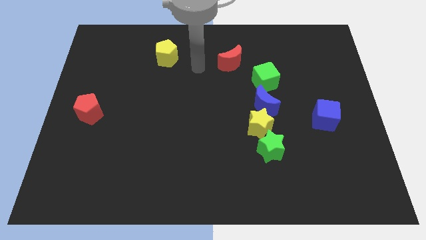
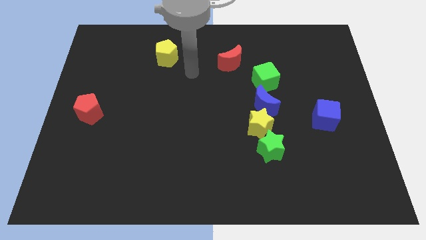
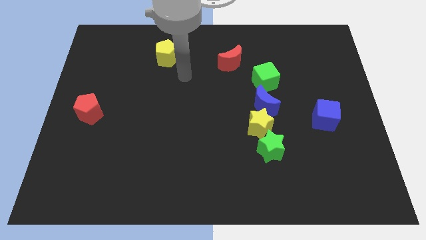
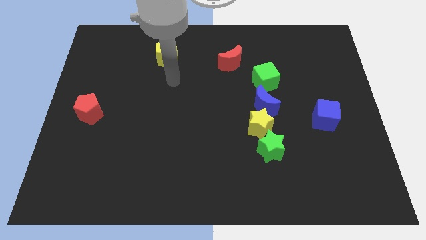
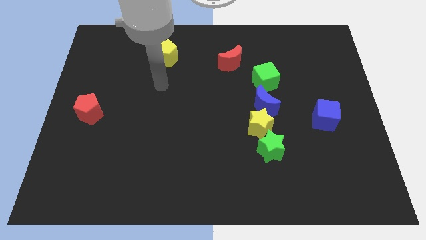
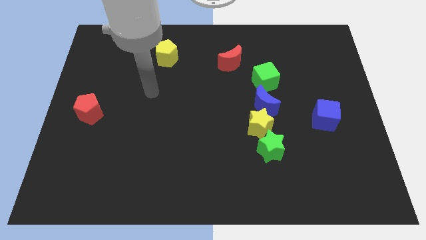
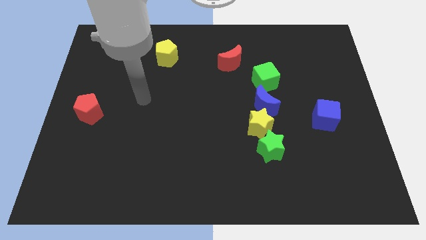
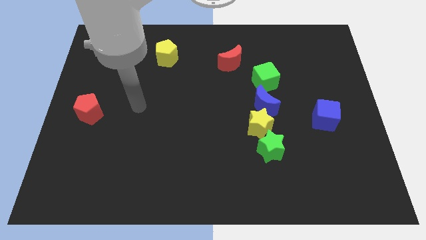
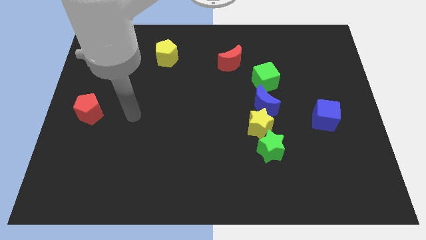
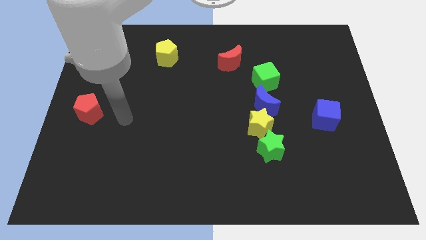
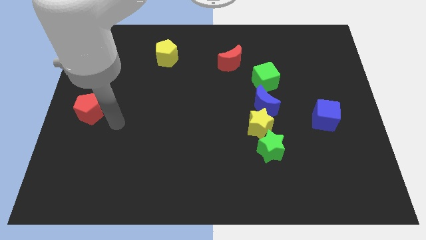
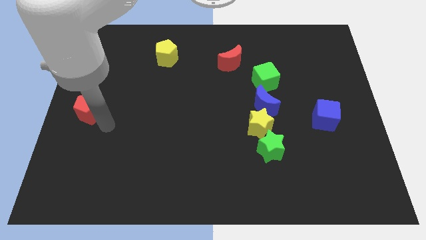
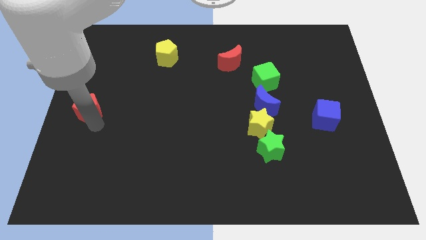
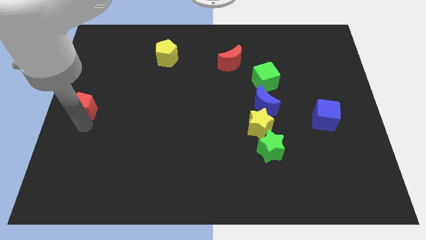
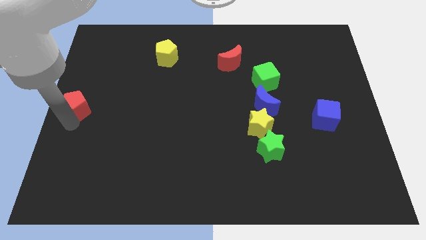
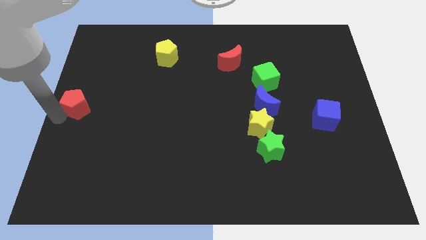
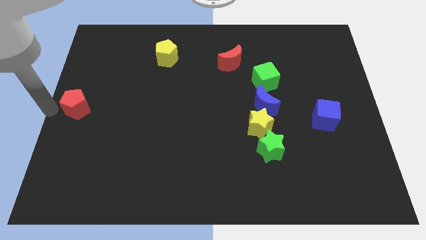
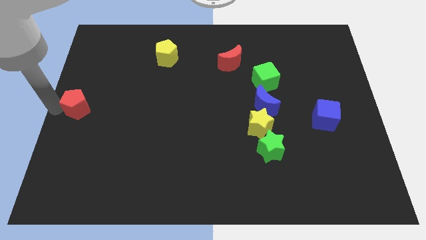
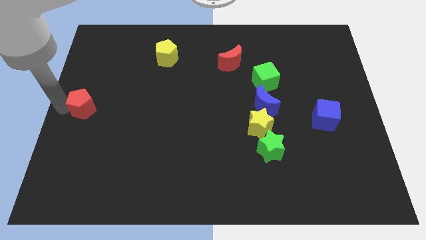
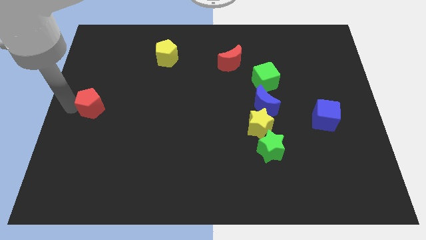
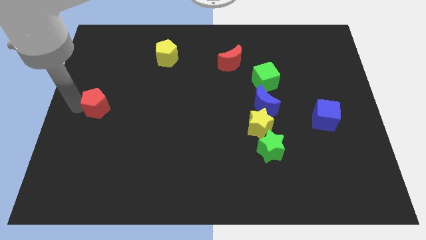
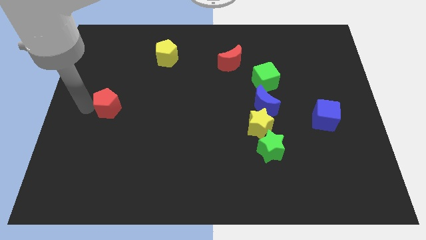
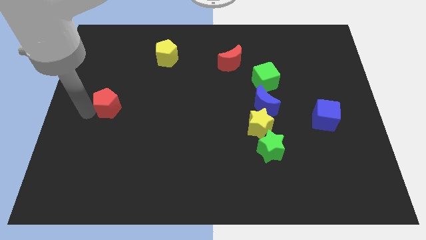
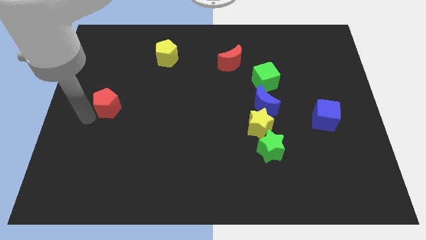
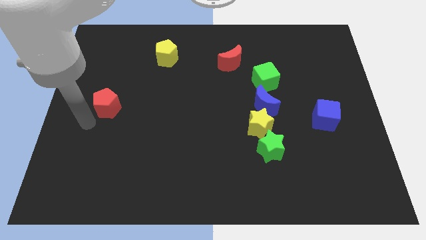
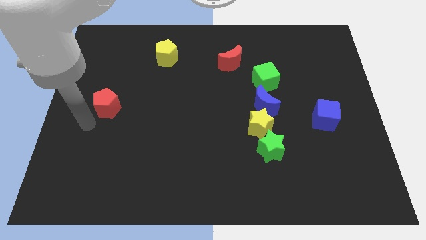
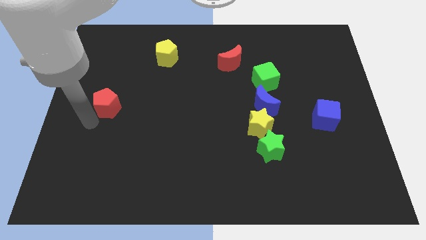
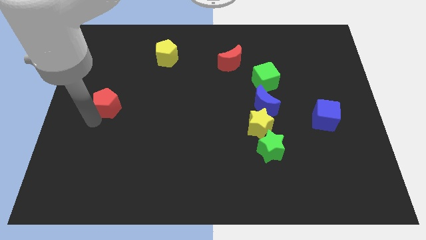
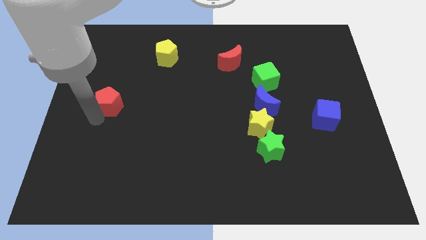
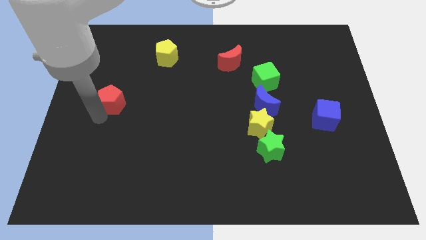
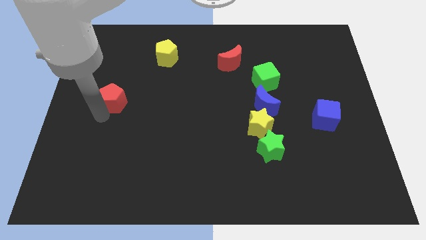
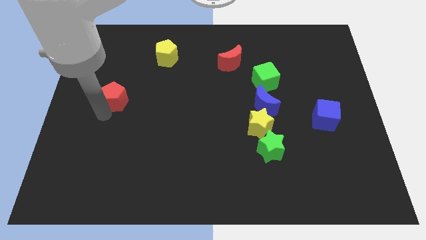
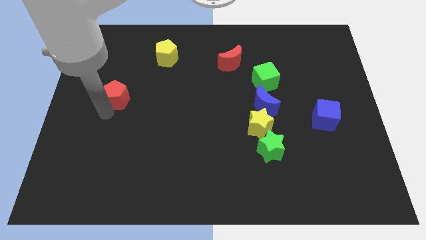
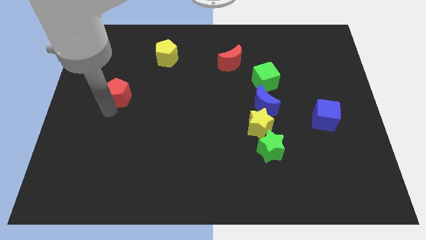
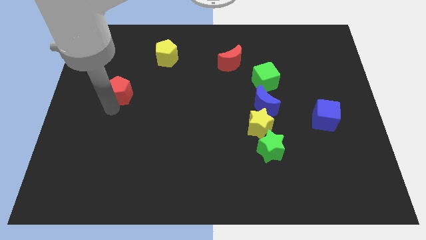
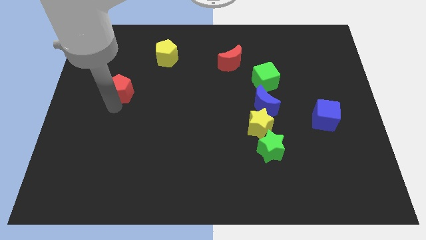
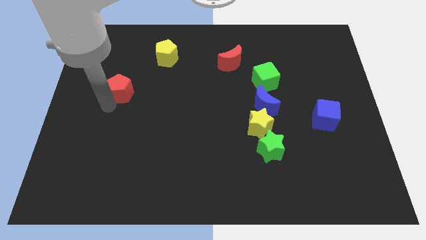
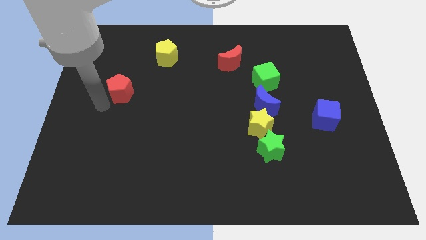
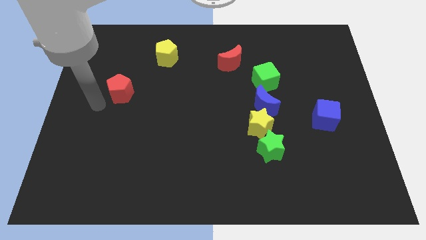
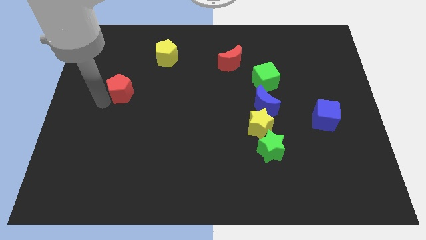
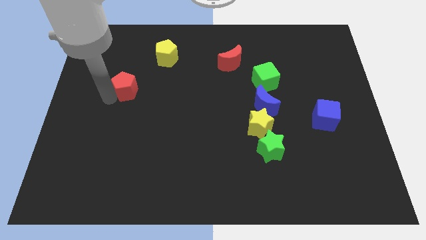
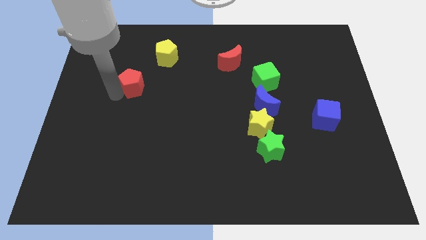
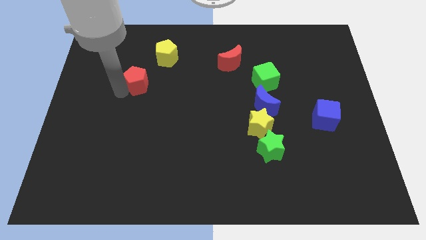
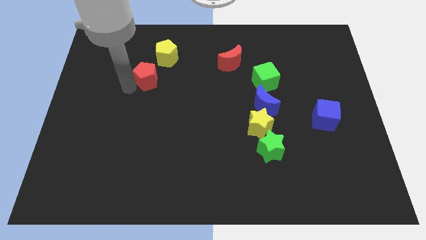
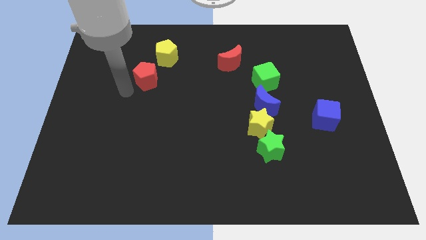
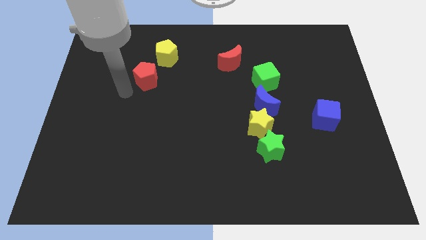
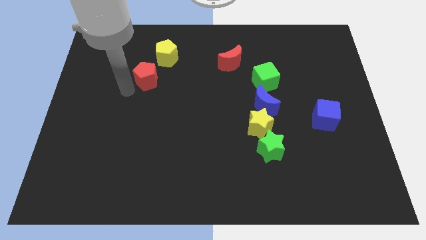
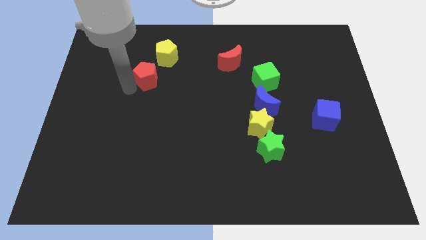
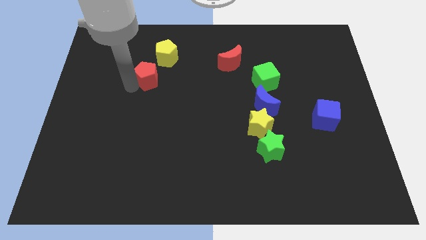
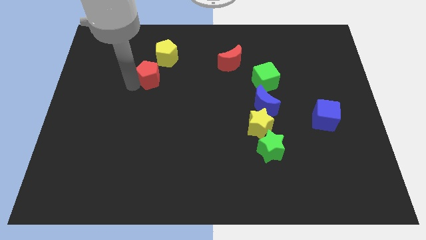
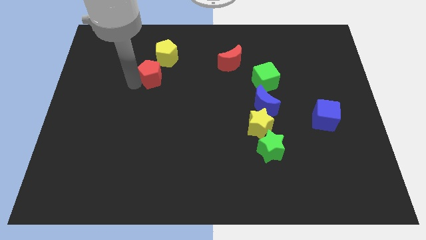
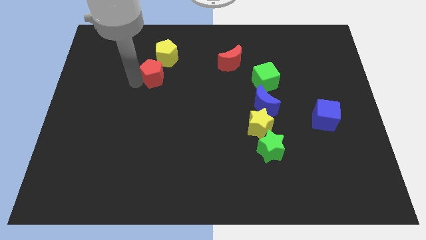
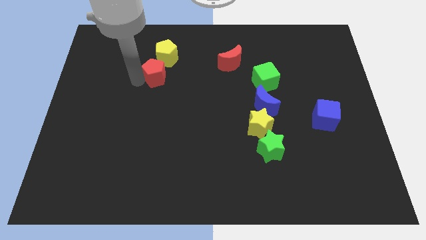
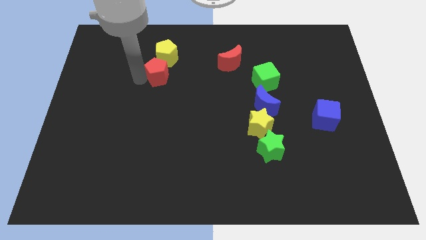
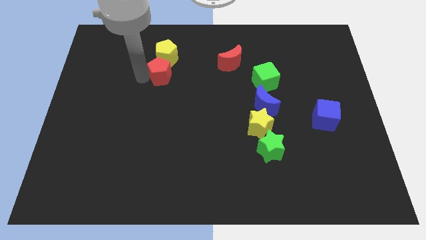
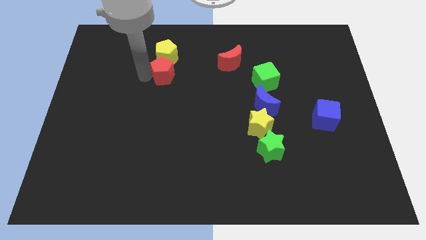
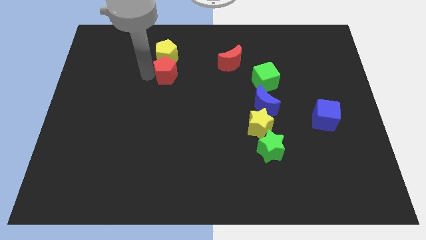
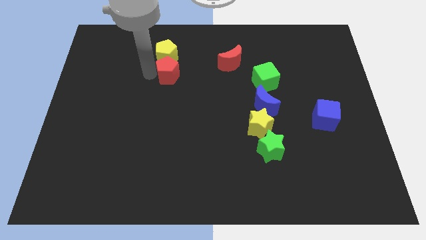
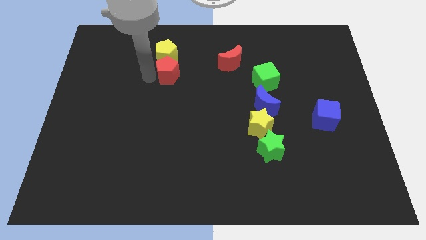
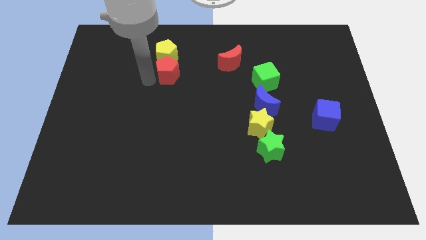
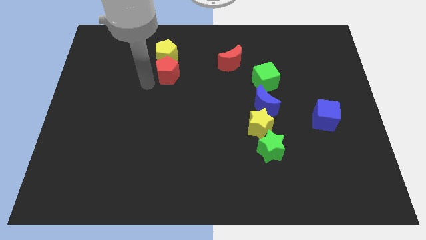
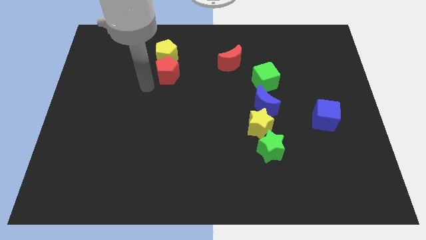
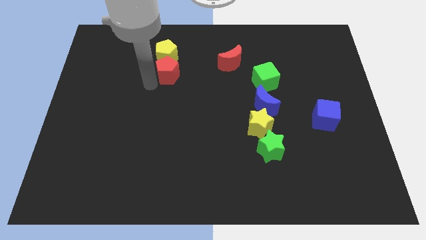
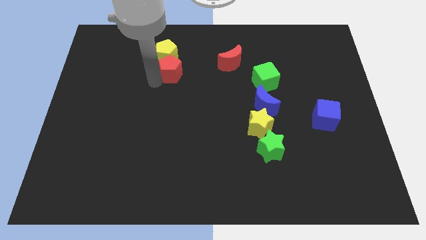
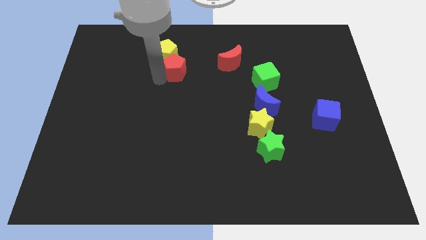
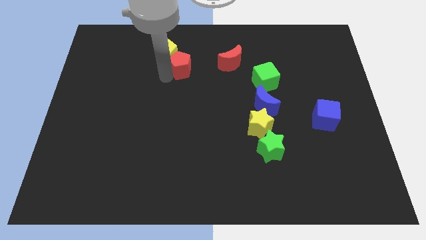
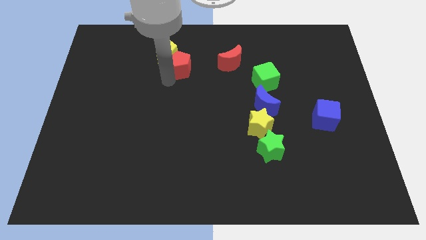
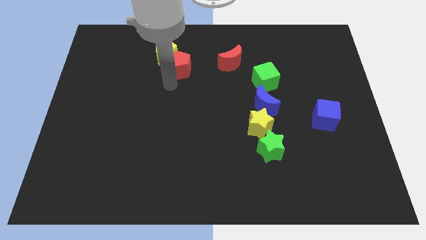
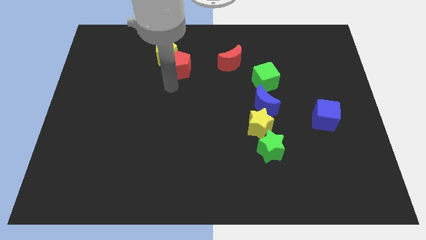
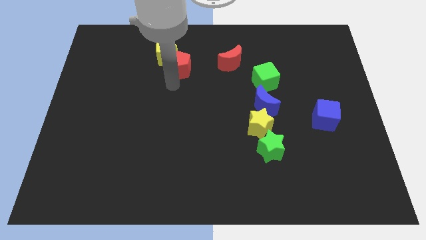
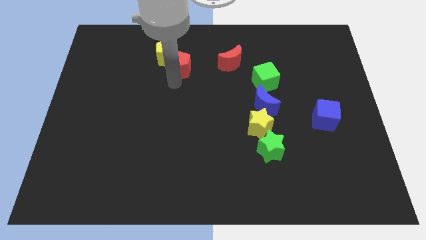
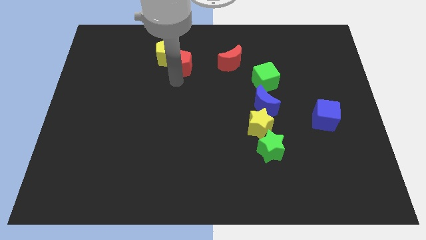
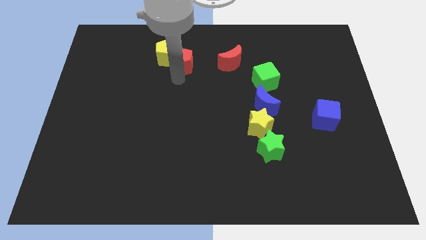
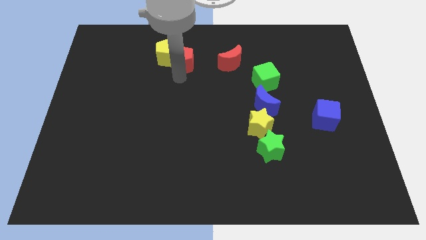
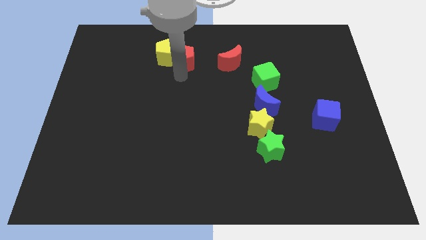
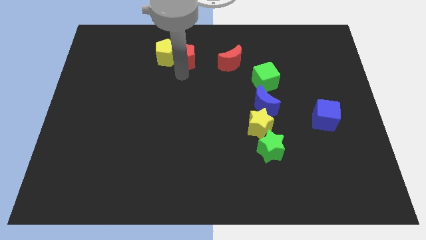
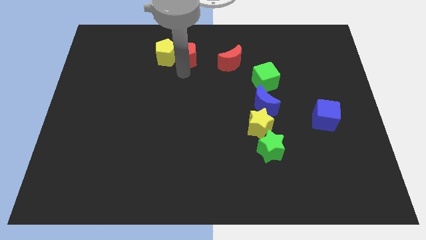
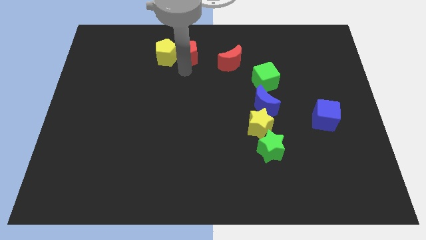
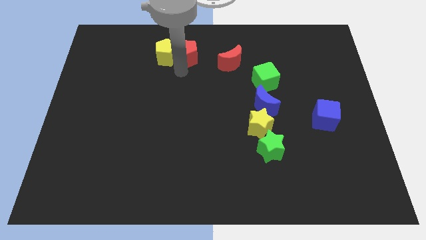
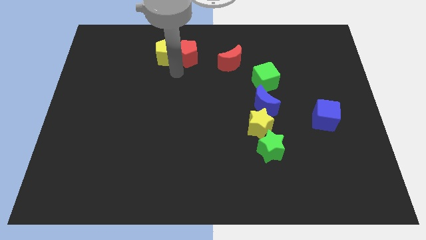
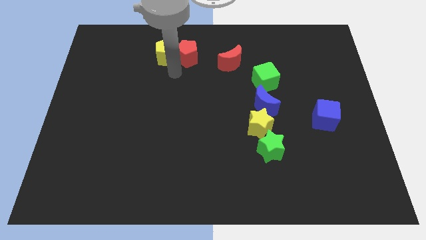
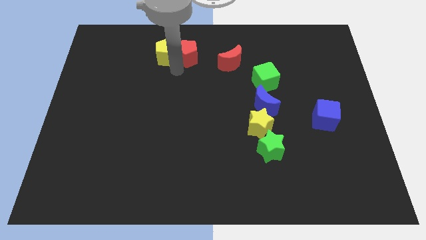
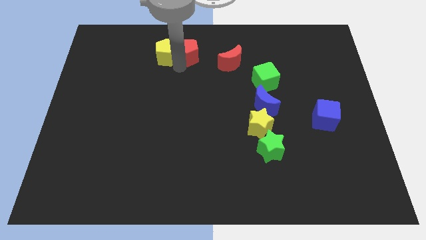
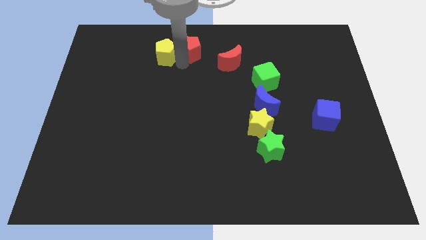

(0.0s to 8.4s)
push the red pentagon to the top
